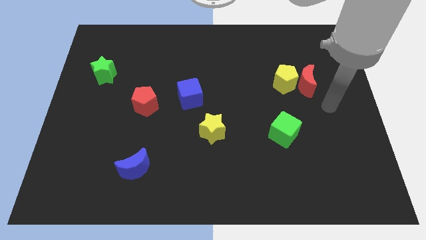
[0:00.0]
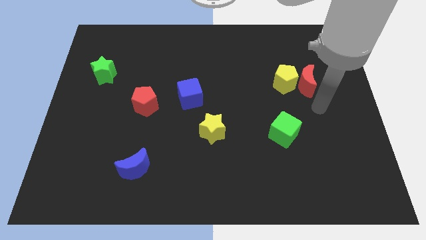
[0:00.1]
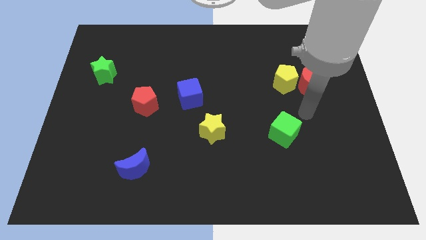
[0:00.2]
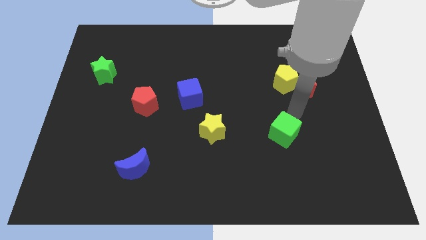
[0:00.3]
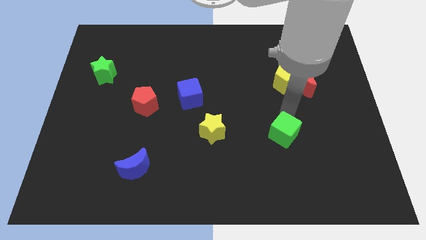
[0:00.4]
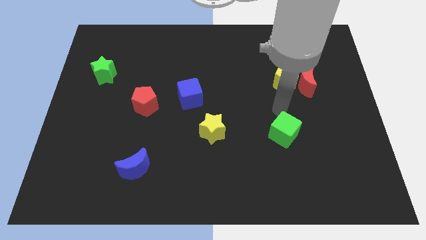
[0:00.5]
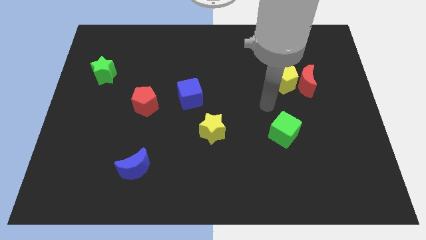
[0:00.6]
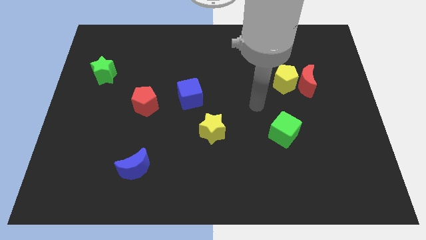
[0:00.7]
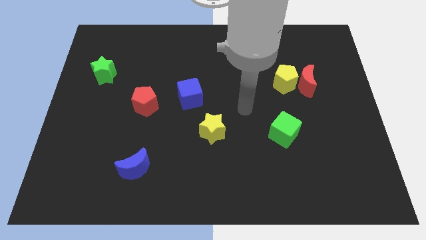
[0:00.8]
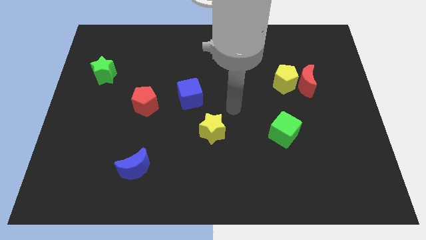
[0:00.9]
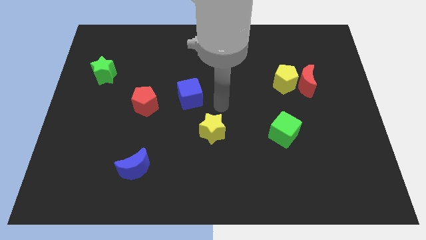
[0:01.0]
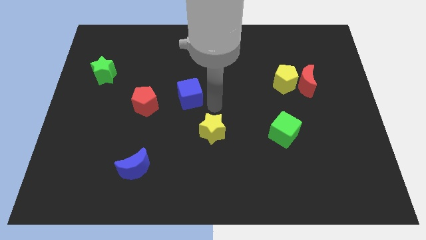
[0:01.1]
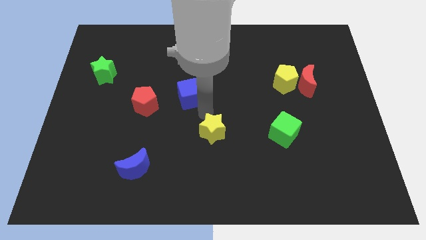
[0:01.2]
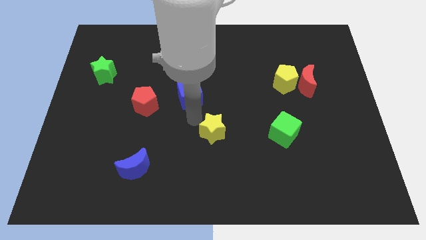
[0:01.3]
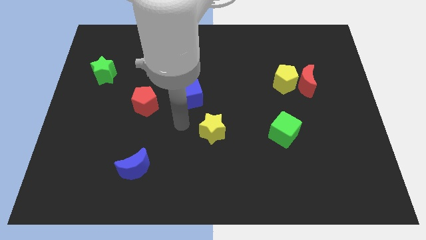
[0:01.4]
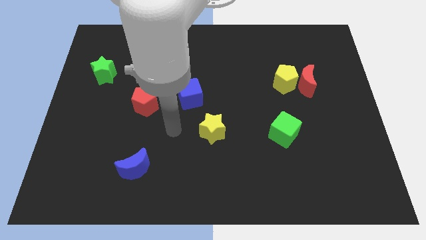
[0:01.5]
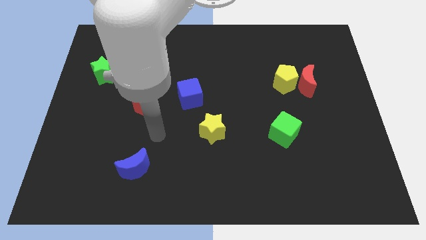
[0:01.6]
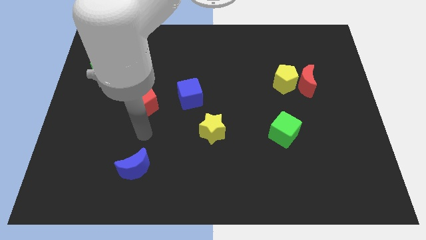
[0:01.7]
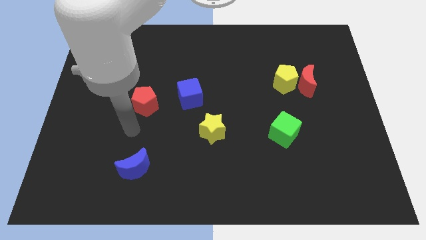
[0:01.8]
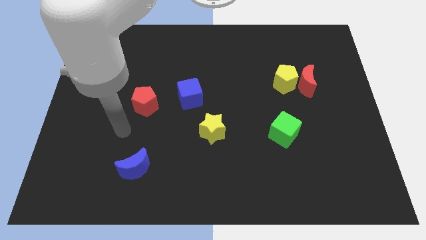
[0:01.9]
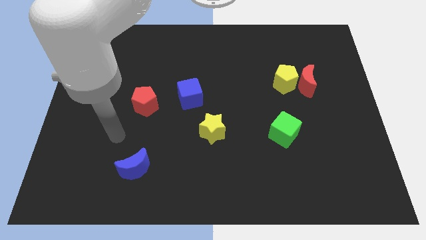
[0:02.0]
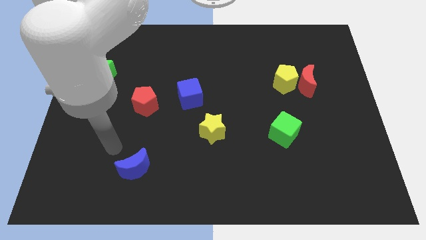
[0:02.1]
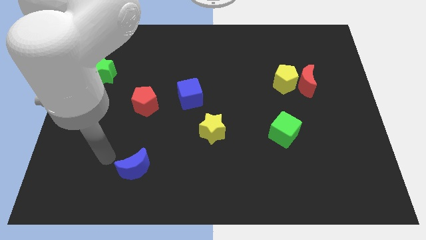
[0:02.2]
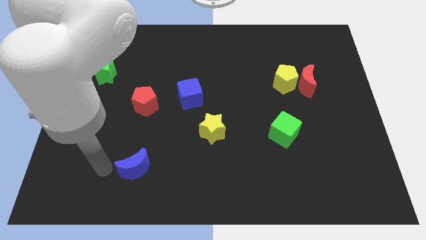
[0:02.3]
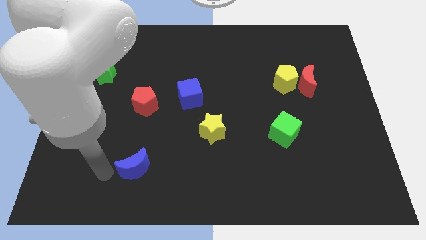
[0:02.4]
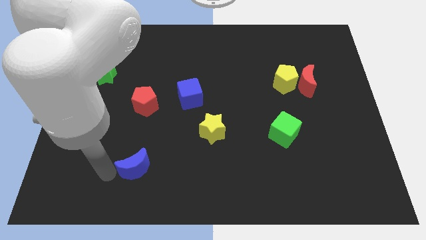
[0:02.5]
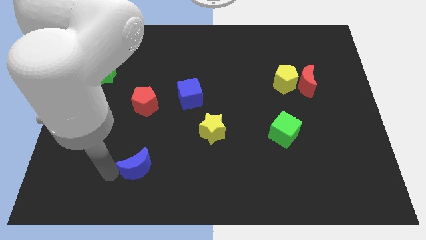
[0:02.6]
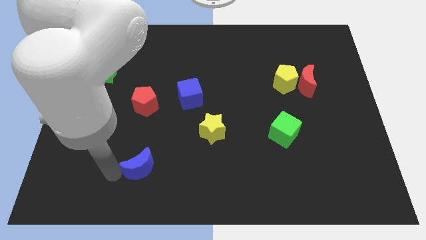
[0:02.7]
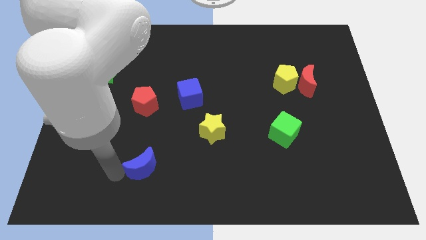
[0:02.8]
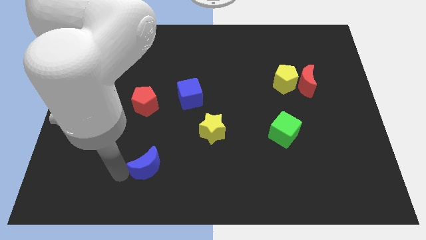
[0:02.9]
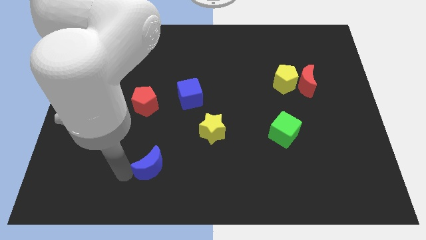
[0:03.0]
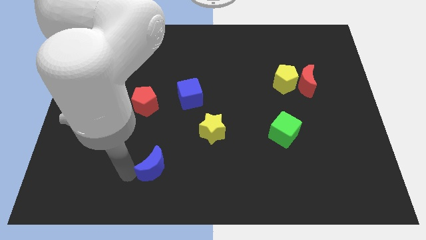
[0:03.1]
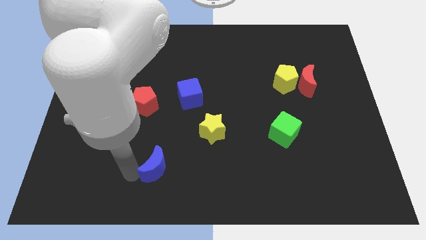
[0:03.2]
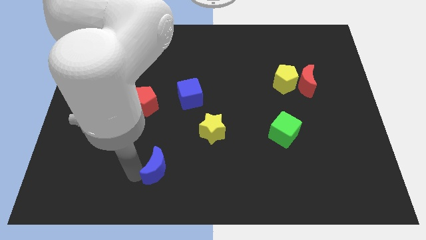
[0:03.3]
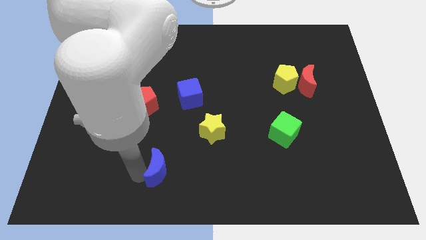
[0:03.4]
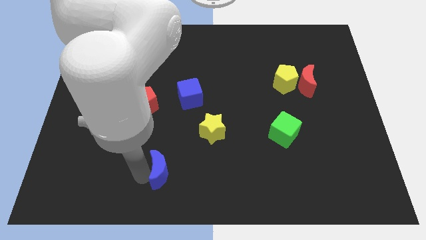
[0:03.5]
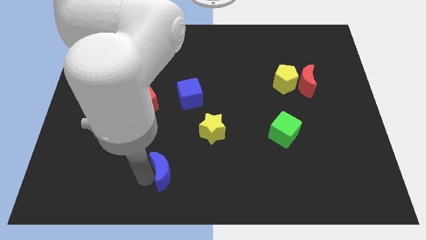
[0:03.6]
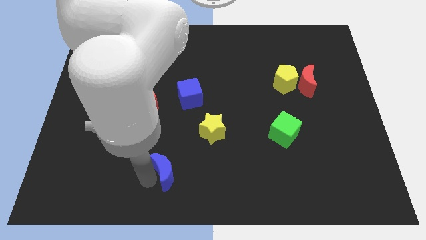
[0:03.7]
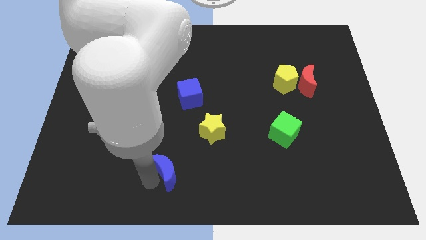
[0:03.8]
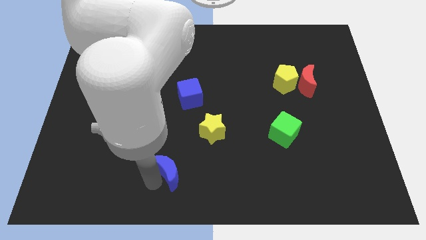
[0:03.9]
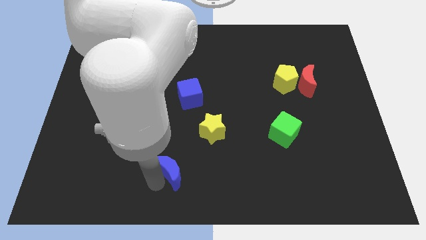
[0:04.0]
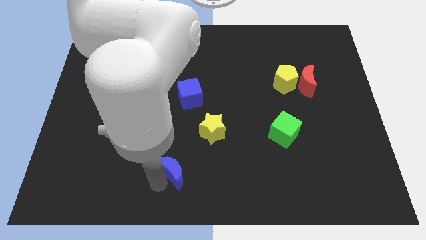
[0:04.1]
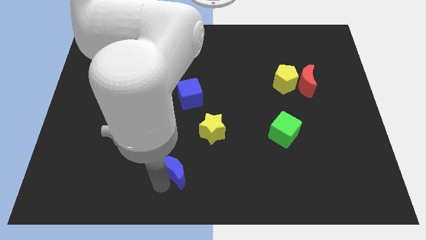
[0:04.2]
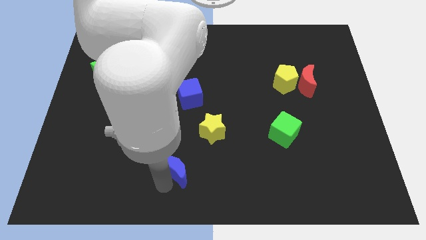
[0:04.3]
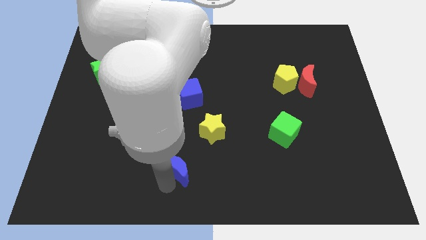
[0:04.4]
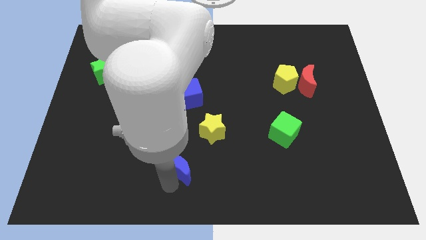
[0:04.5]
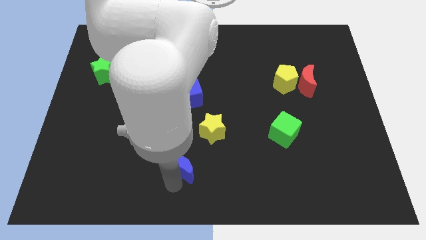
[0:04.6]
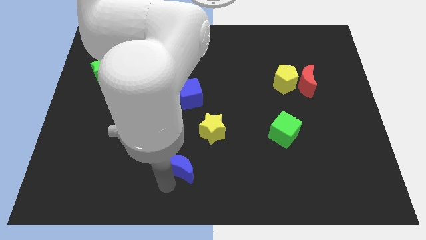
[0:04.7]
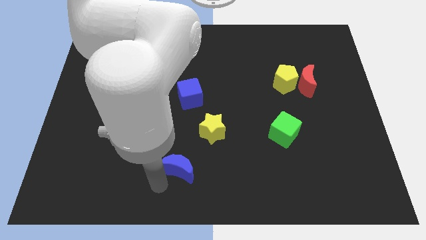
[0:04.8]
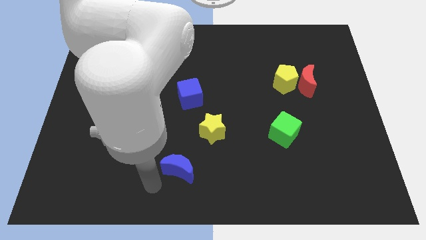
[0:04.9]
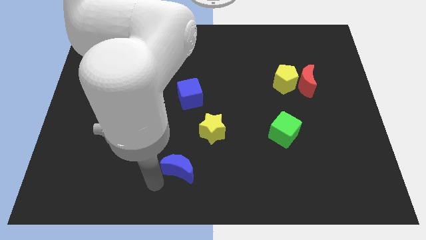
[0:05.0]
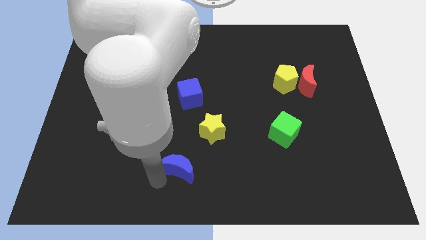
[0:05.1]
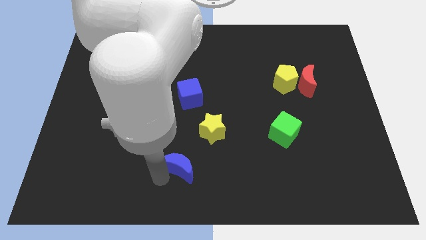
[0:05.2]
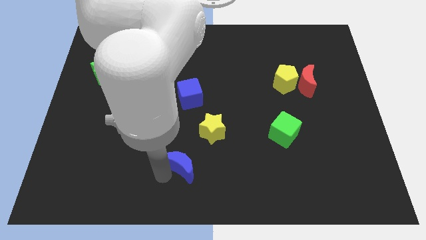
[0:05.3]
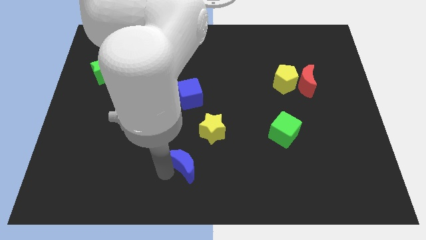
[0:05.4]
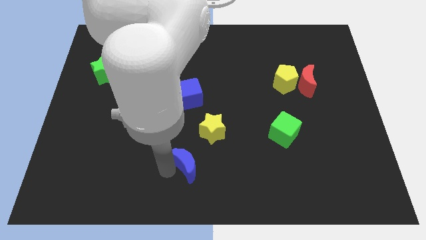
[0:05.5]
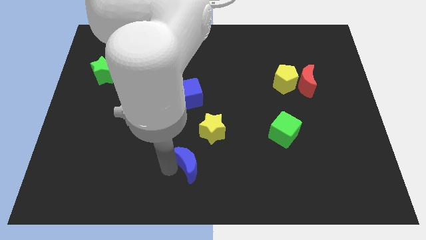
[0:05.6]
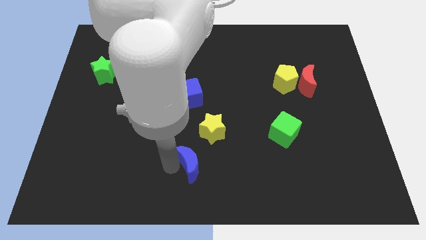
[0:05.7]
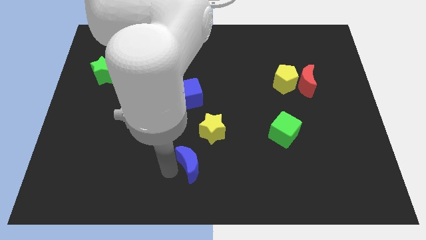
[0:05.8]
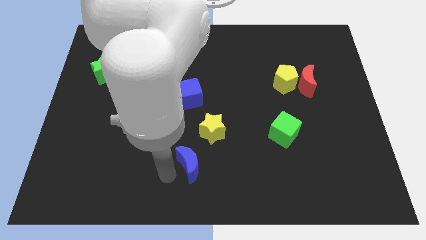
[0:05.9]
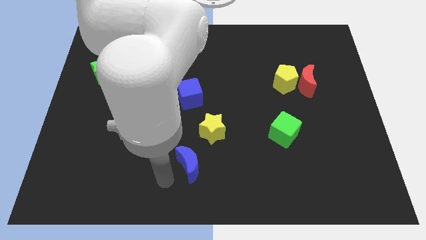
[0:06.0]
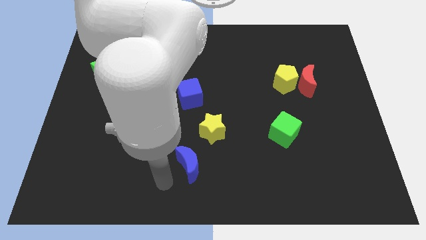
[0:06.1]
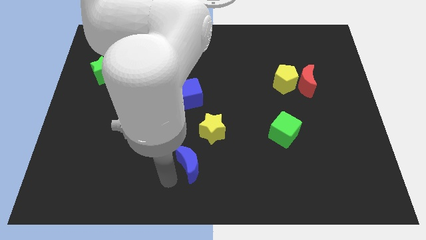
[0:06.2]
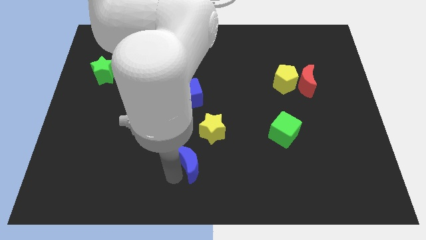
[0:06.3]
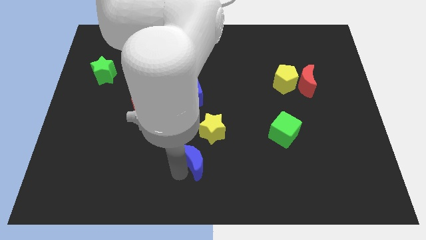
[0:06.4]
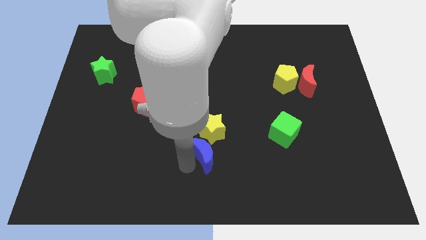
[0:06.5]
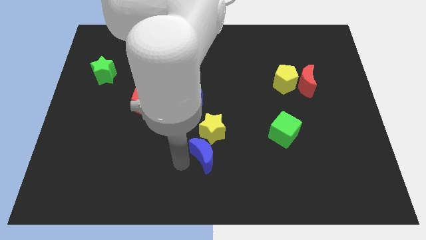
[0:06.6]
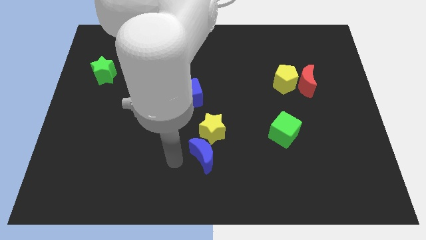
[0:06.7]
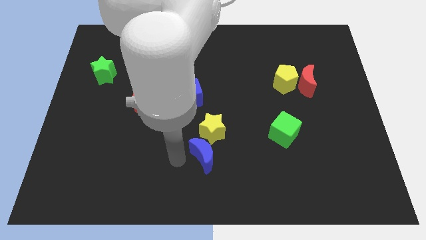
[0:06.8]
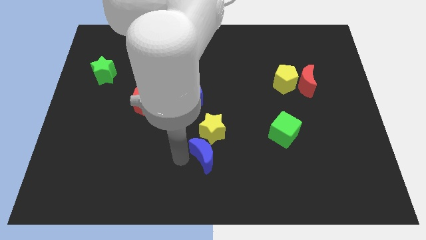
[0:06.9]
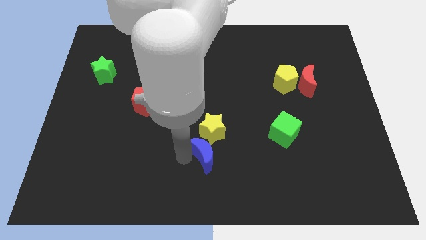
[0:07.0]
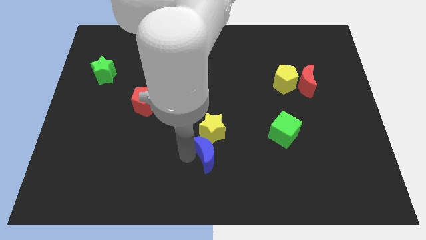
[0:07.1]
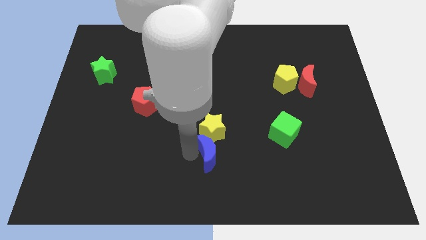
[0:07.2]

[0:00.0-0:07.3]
slide the blue moon to the bottom right of the yellow star
